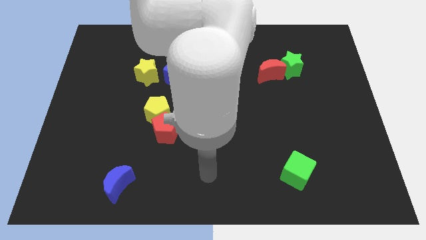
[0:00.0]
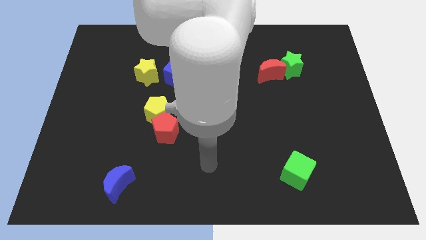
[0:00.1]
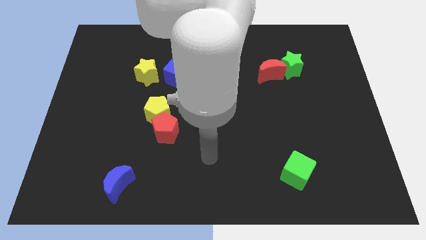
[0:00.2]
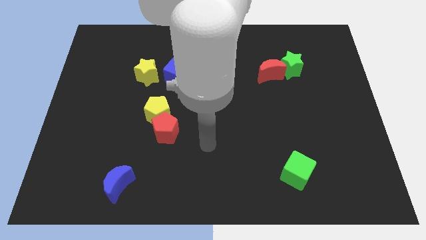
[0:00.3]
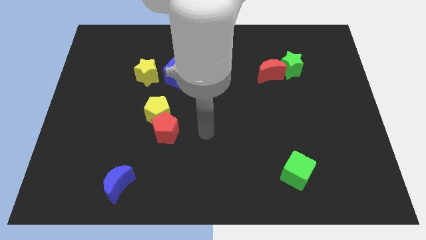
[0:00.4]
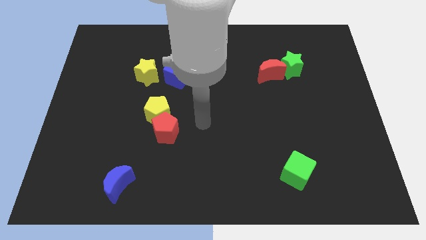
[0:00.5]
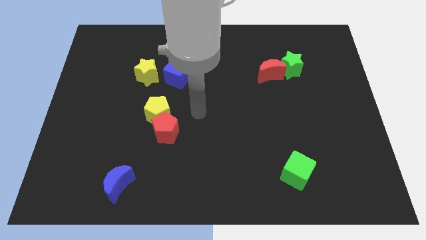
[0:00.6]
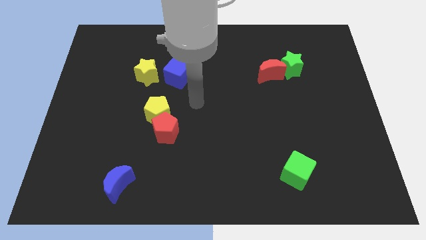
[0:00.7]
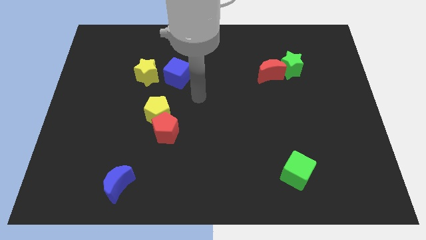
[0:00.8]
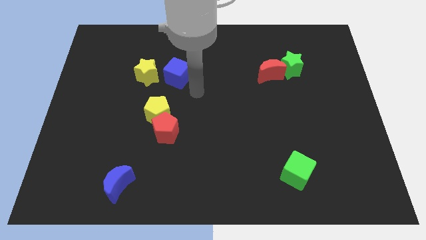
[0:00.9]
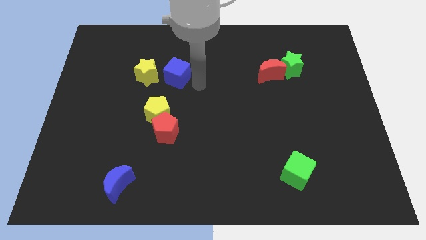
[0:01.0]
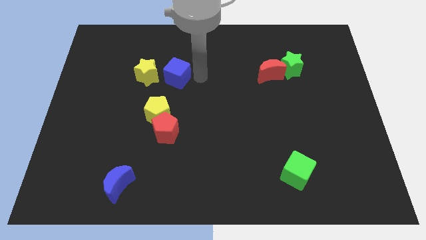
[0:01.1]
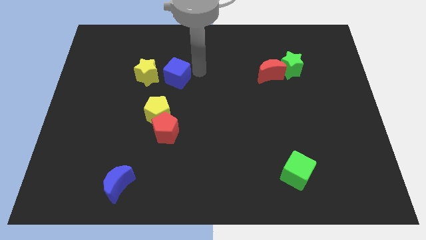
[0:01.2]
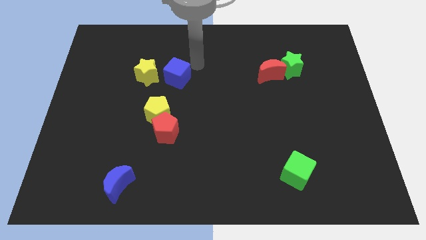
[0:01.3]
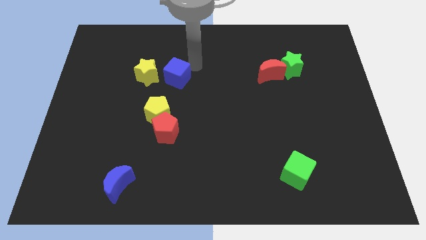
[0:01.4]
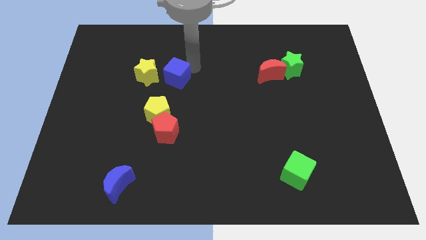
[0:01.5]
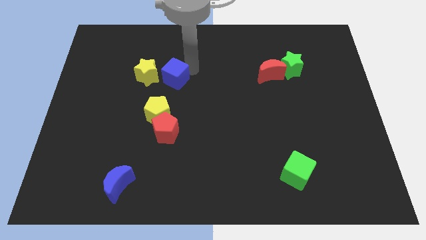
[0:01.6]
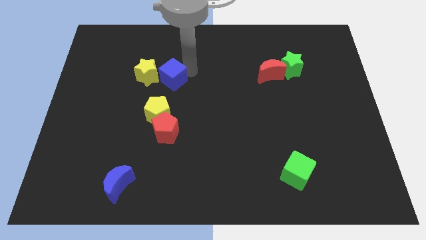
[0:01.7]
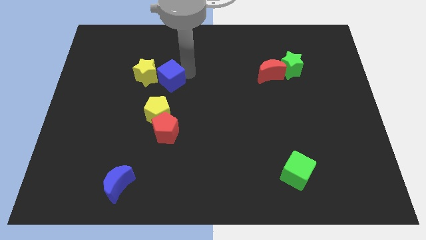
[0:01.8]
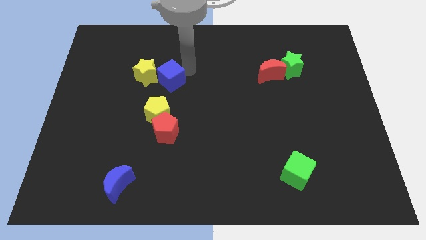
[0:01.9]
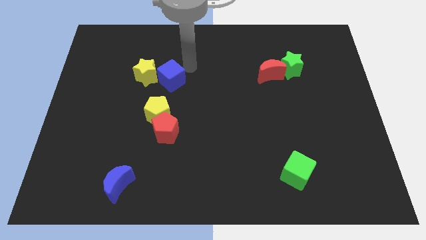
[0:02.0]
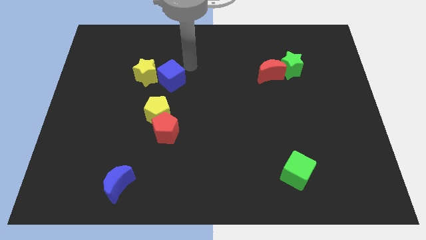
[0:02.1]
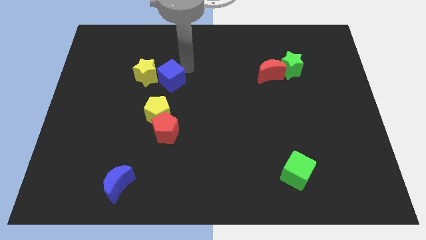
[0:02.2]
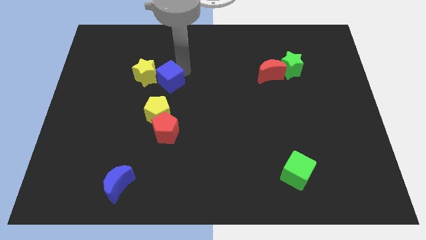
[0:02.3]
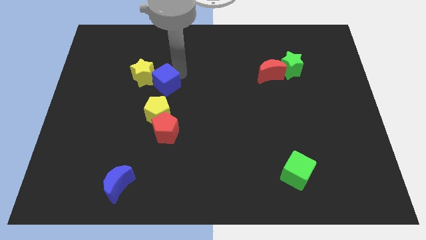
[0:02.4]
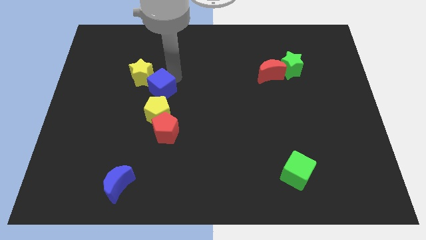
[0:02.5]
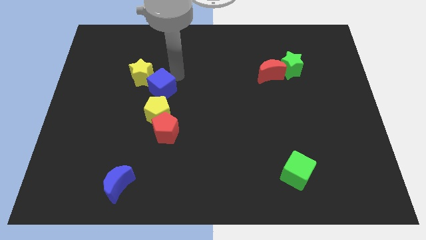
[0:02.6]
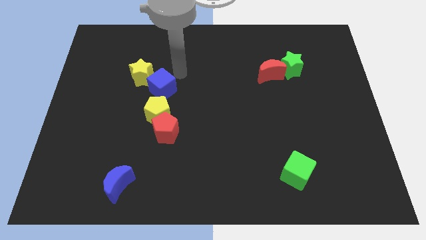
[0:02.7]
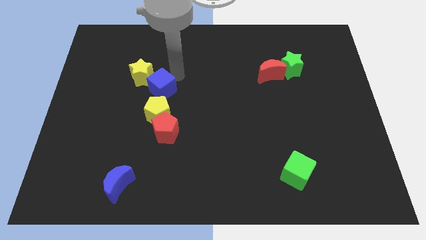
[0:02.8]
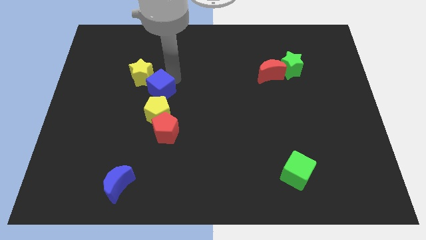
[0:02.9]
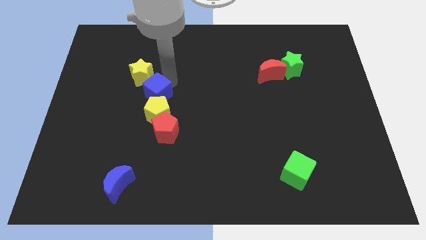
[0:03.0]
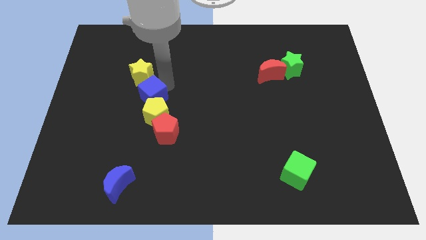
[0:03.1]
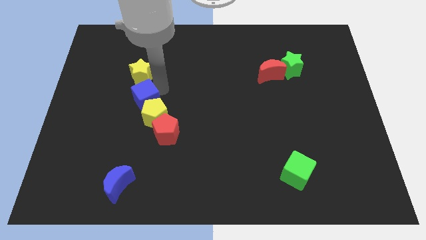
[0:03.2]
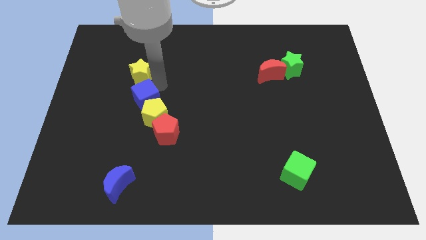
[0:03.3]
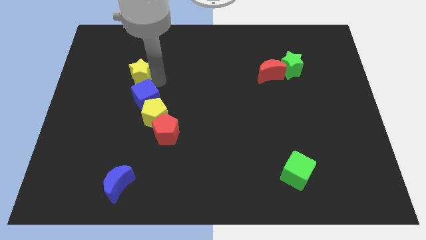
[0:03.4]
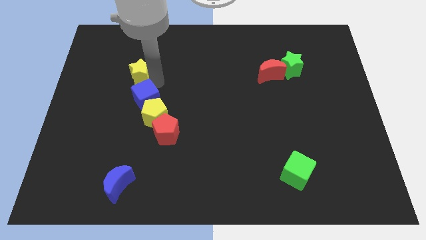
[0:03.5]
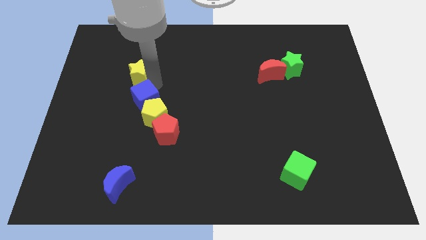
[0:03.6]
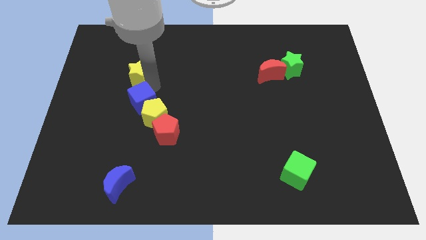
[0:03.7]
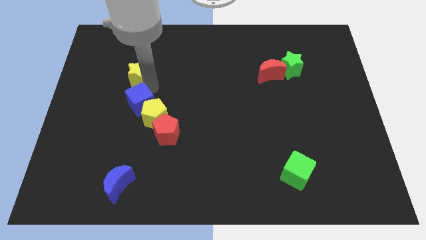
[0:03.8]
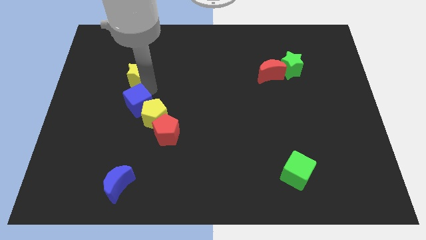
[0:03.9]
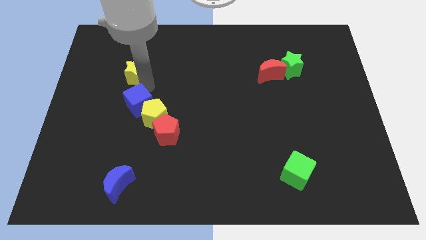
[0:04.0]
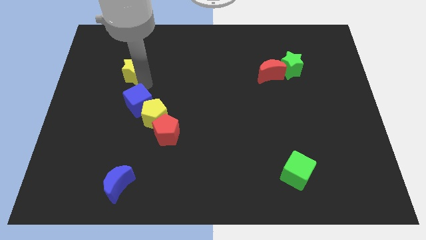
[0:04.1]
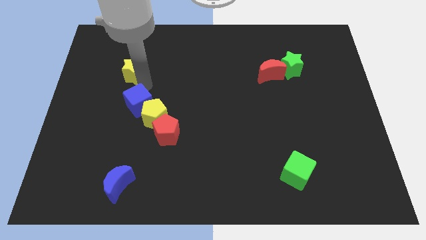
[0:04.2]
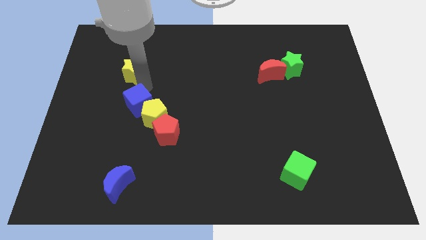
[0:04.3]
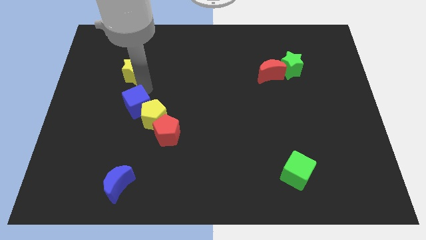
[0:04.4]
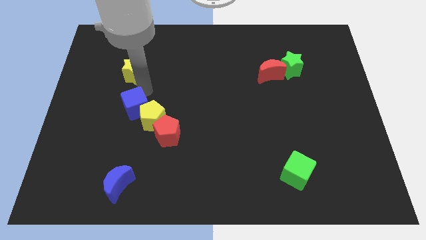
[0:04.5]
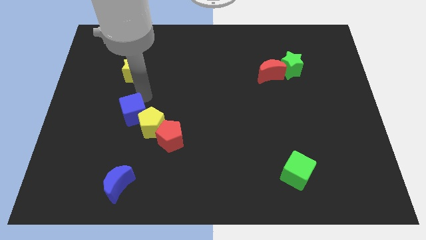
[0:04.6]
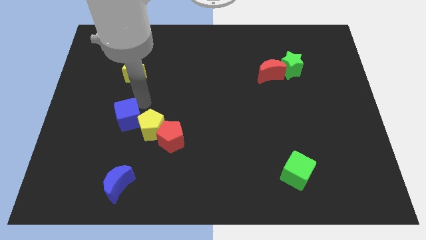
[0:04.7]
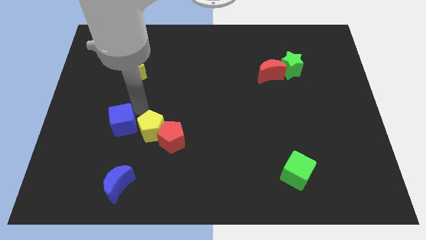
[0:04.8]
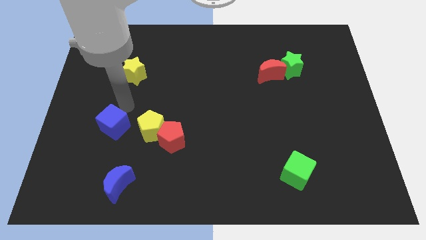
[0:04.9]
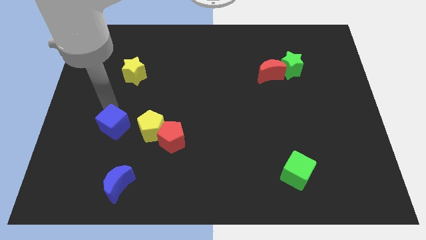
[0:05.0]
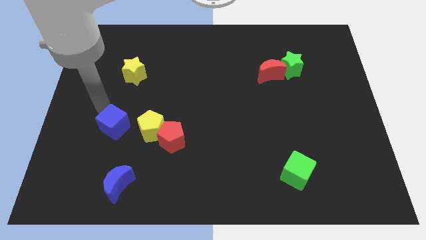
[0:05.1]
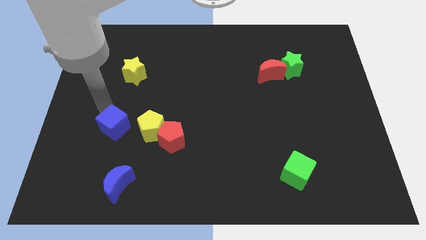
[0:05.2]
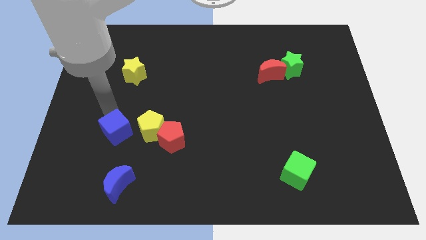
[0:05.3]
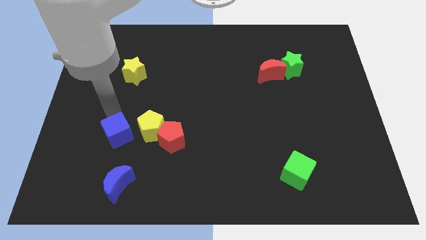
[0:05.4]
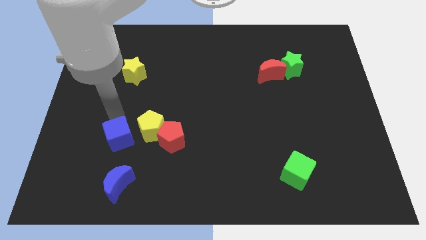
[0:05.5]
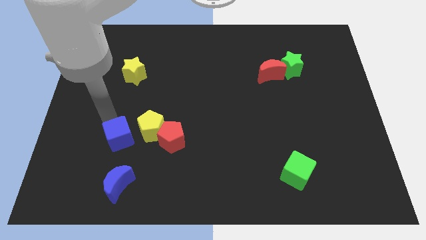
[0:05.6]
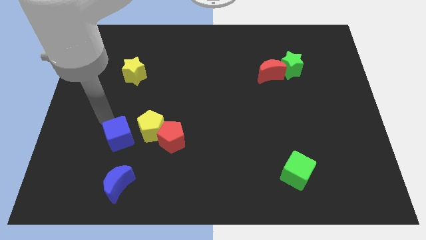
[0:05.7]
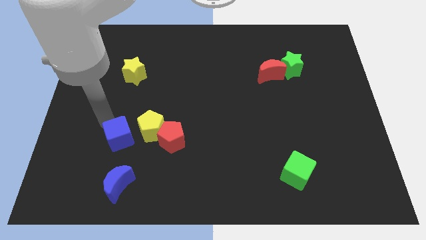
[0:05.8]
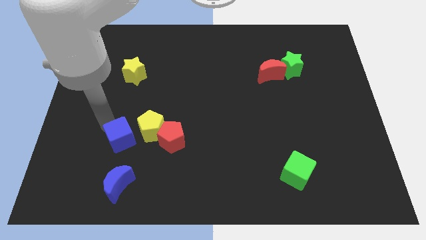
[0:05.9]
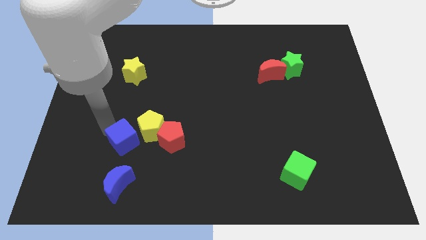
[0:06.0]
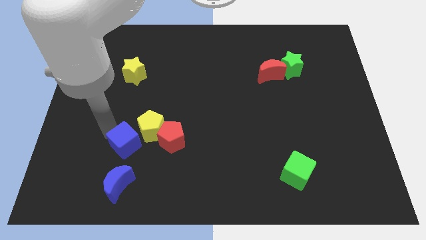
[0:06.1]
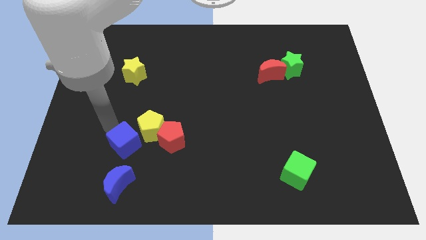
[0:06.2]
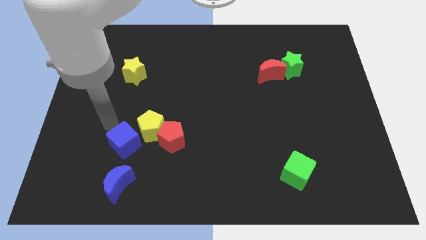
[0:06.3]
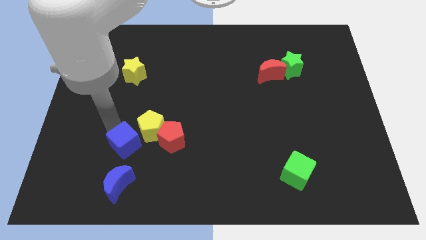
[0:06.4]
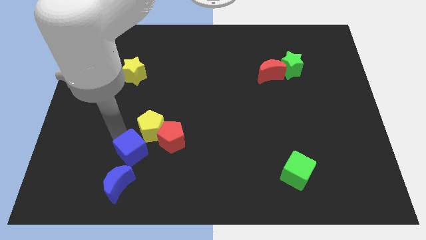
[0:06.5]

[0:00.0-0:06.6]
push the blue cube to the bottom of the yellow pentagon

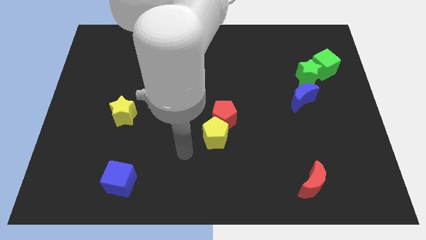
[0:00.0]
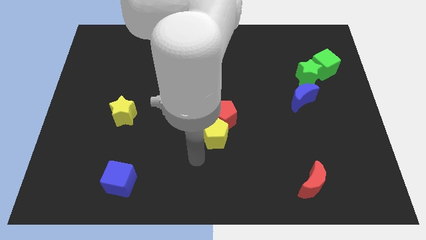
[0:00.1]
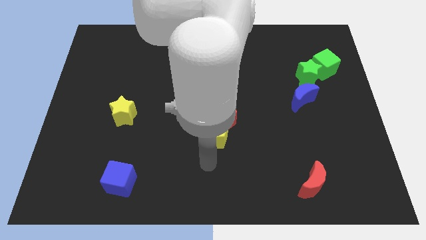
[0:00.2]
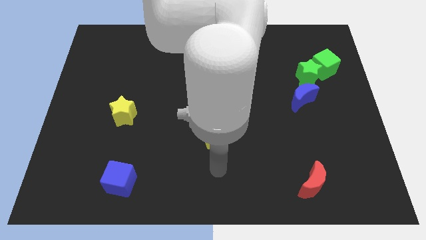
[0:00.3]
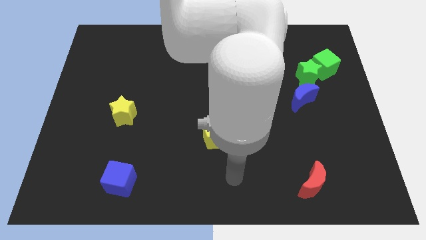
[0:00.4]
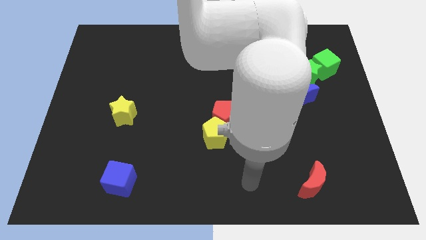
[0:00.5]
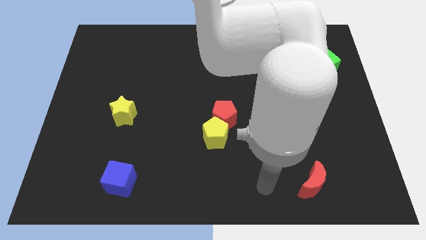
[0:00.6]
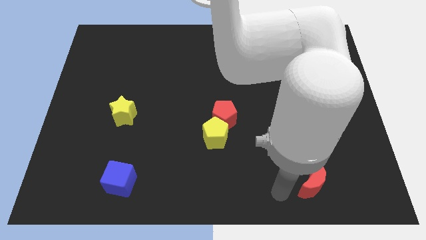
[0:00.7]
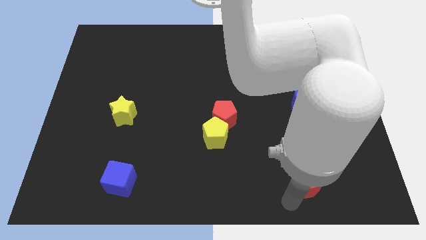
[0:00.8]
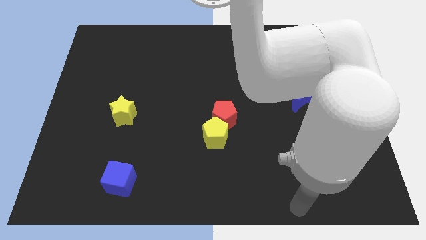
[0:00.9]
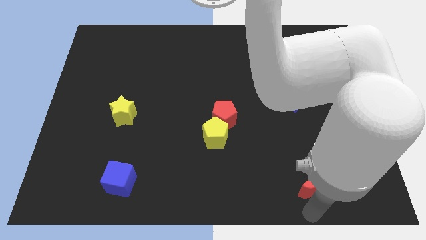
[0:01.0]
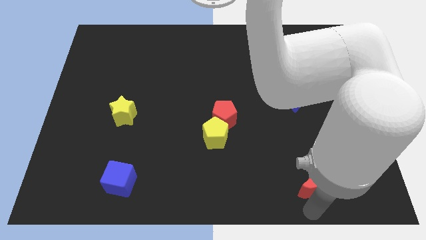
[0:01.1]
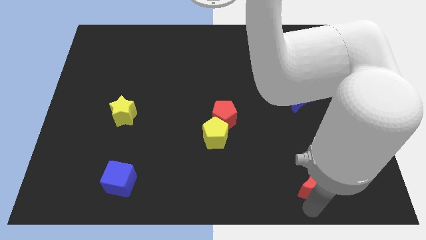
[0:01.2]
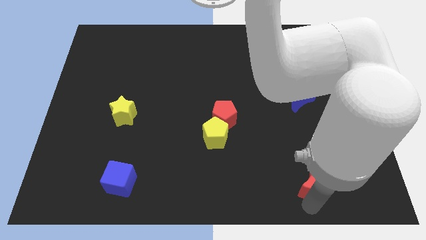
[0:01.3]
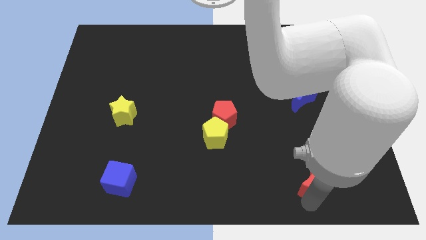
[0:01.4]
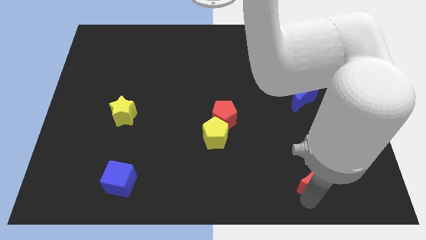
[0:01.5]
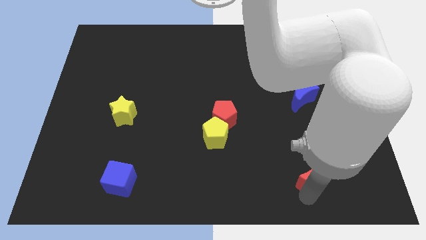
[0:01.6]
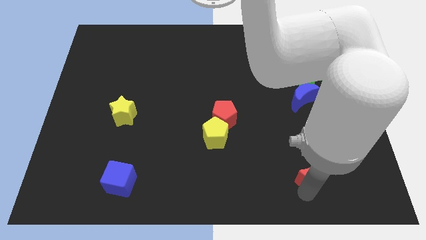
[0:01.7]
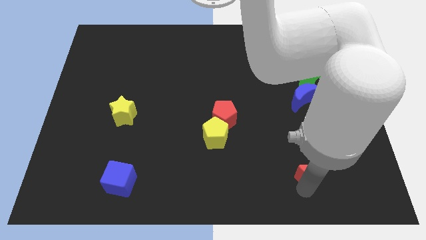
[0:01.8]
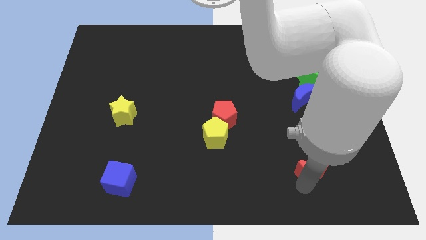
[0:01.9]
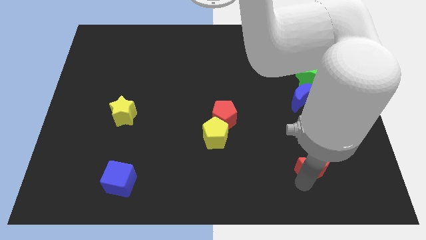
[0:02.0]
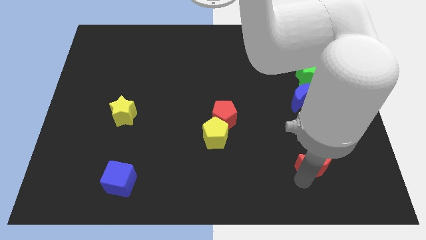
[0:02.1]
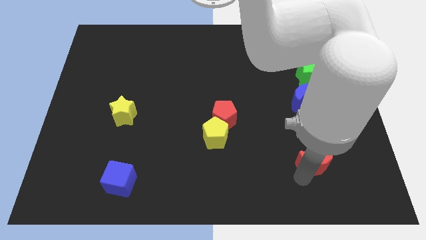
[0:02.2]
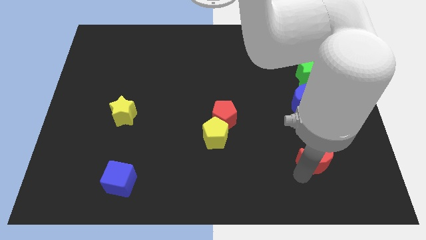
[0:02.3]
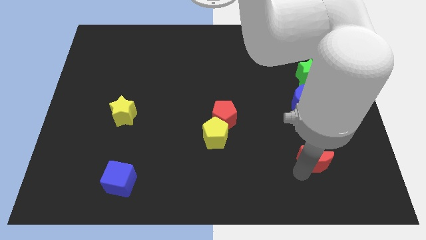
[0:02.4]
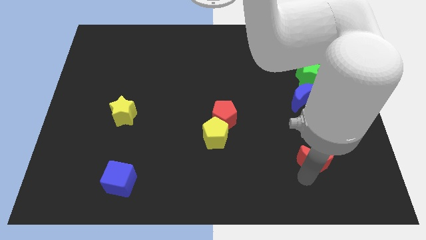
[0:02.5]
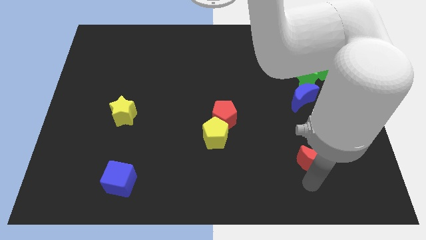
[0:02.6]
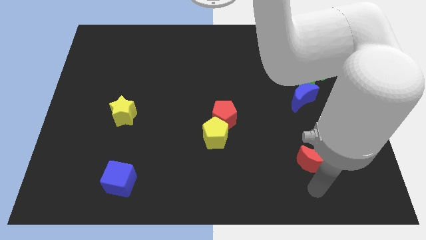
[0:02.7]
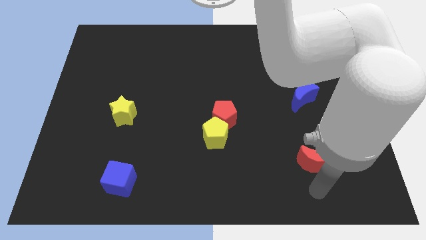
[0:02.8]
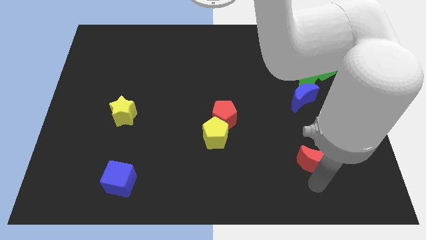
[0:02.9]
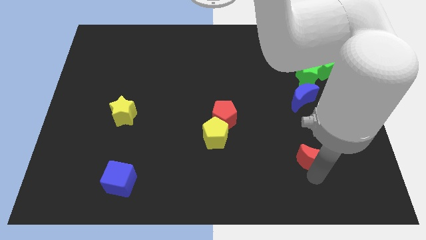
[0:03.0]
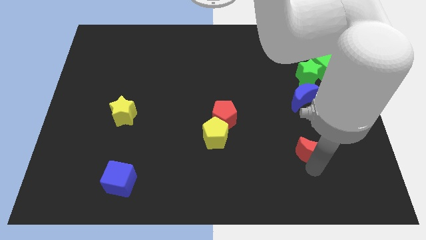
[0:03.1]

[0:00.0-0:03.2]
push the red moon to the bottom of the blue moon
